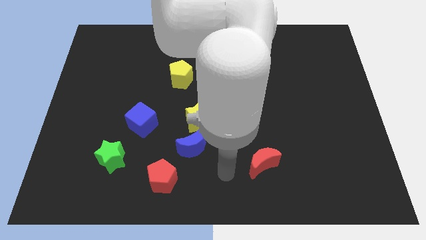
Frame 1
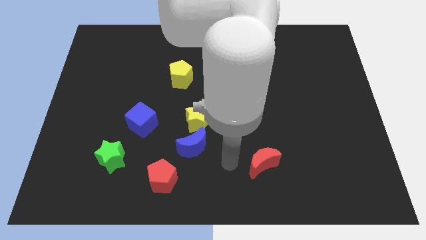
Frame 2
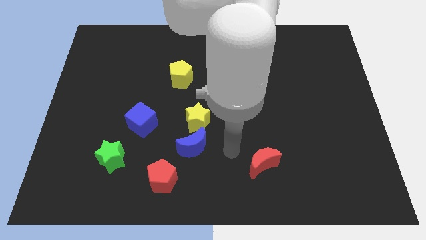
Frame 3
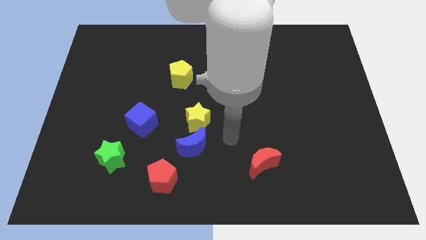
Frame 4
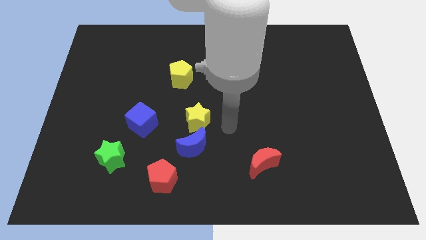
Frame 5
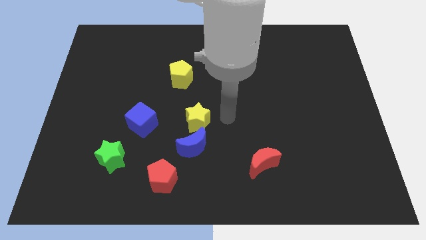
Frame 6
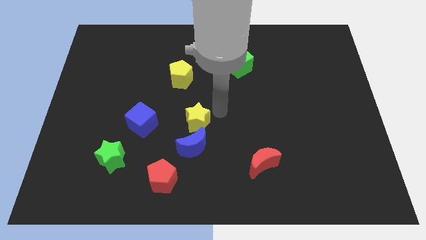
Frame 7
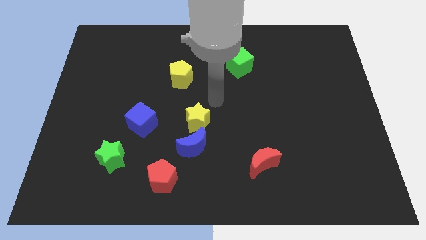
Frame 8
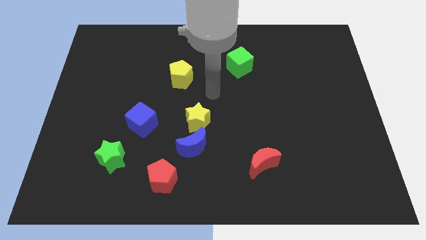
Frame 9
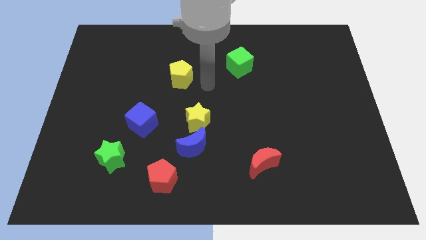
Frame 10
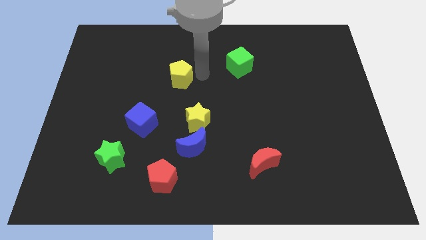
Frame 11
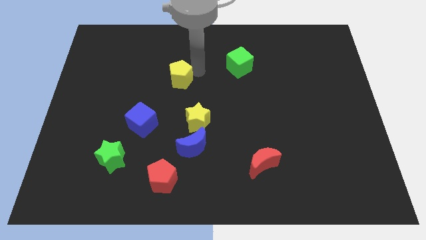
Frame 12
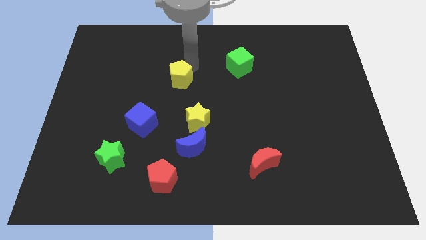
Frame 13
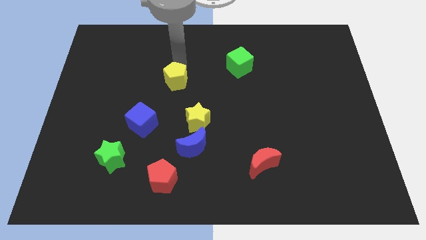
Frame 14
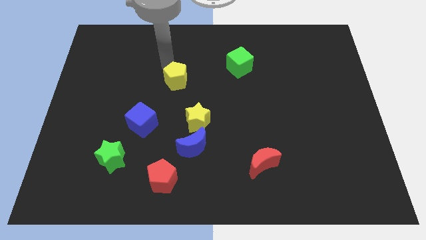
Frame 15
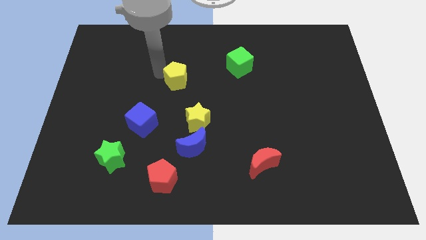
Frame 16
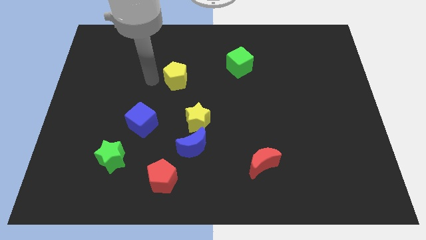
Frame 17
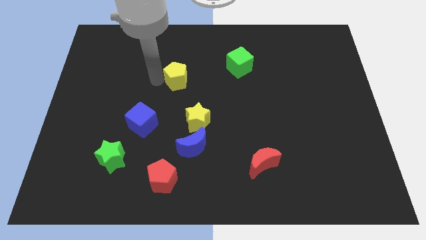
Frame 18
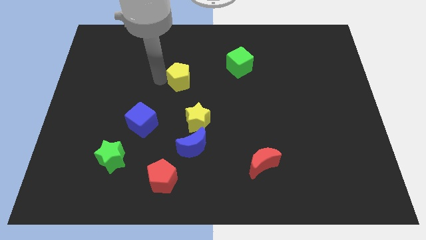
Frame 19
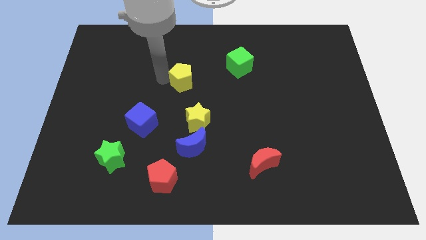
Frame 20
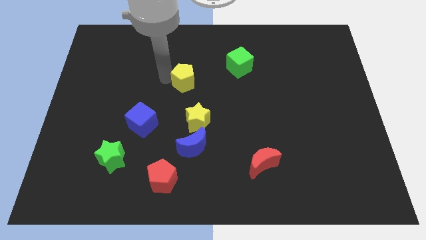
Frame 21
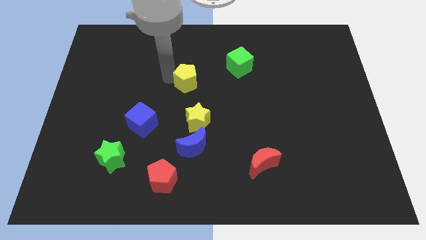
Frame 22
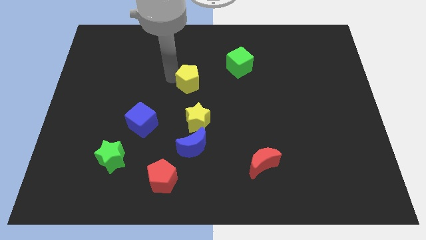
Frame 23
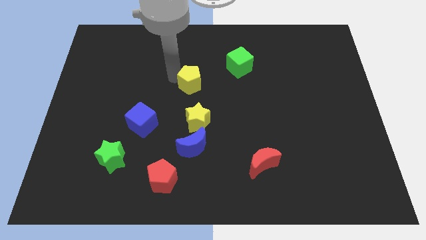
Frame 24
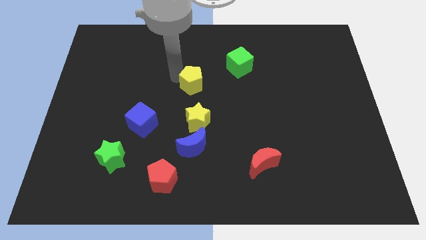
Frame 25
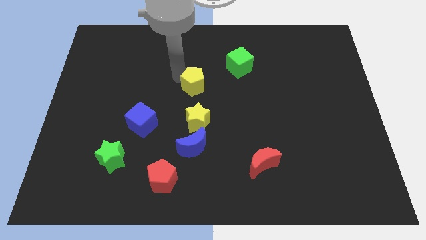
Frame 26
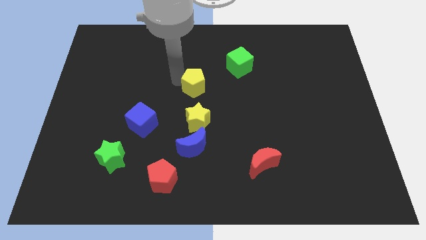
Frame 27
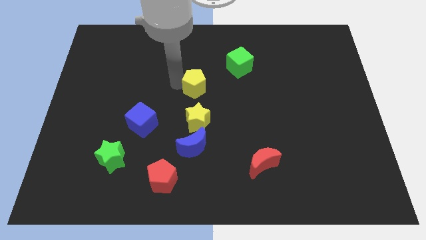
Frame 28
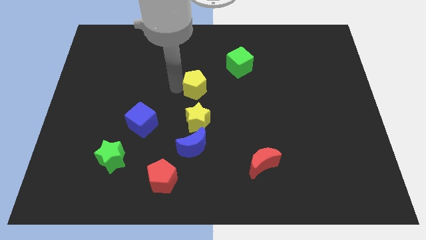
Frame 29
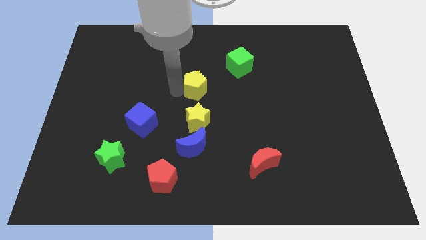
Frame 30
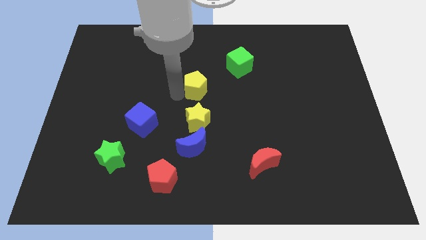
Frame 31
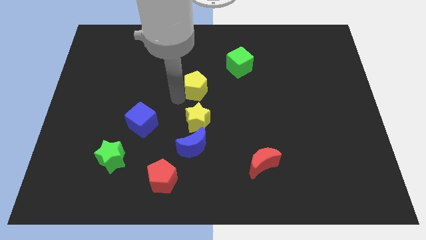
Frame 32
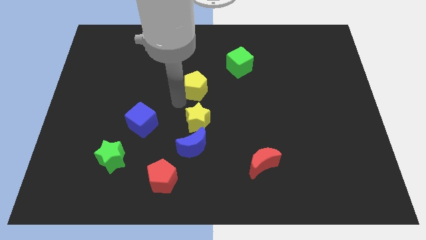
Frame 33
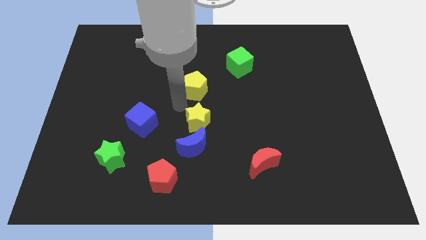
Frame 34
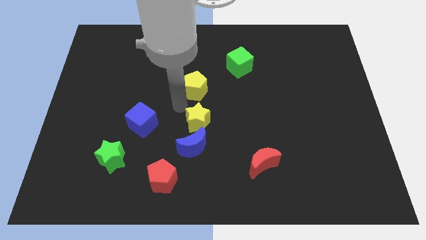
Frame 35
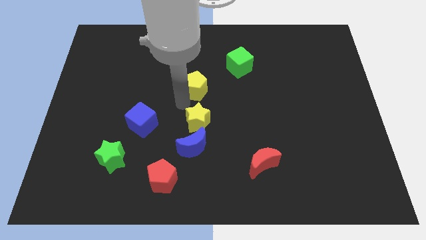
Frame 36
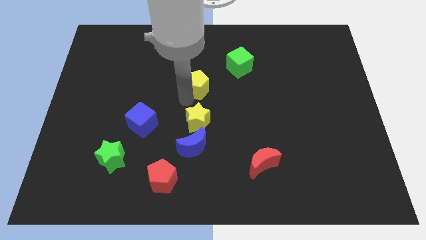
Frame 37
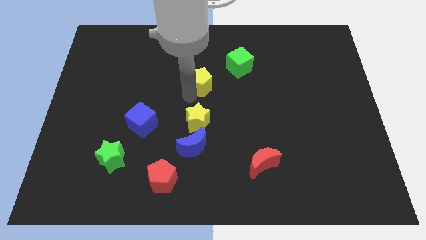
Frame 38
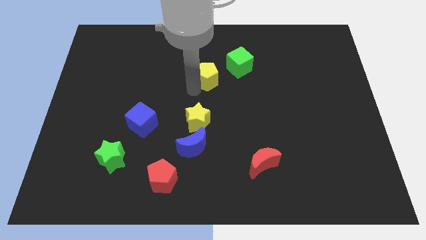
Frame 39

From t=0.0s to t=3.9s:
slightly push the yellow pentagon right

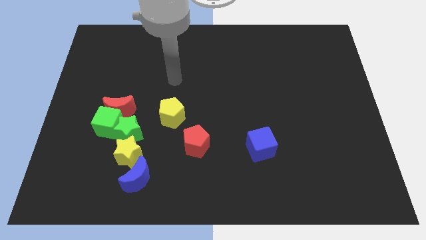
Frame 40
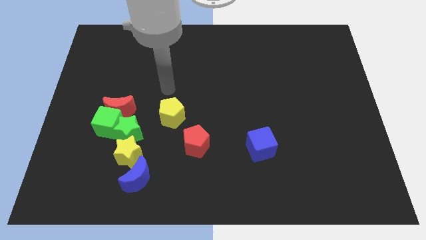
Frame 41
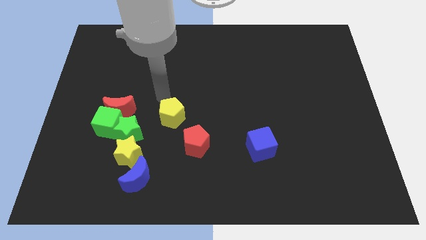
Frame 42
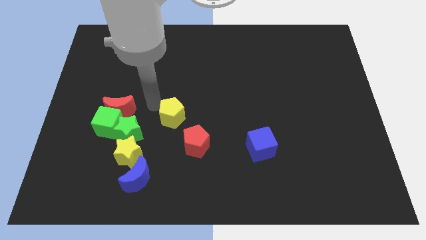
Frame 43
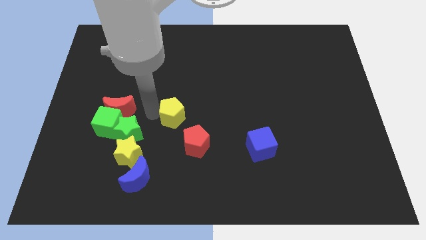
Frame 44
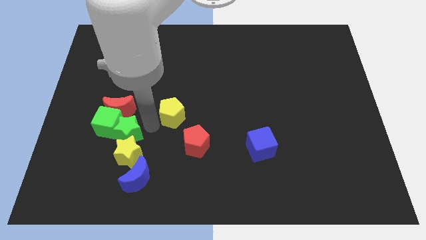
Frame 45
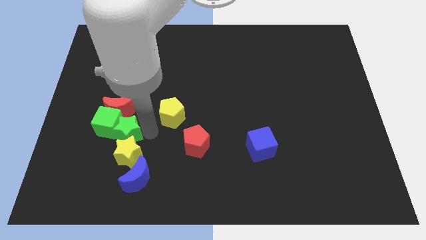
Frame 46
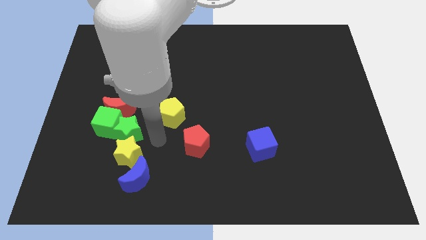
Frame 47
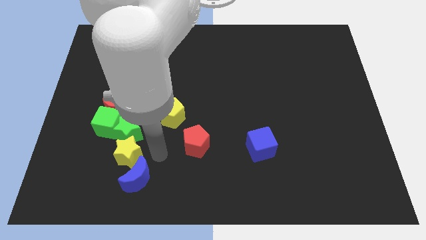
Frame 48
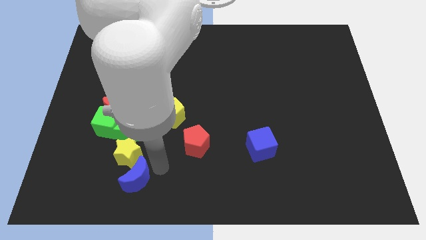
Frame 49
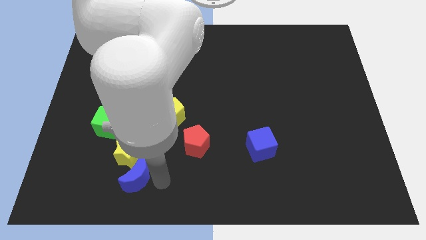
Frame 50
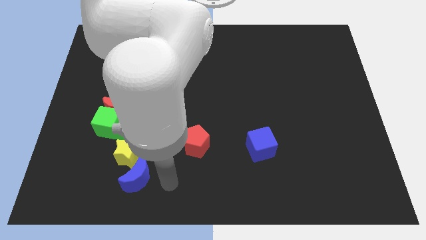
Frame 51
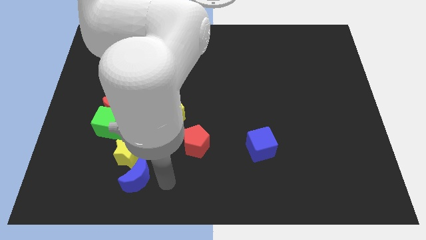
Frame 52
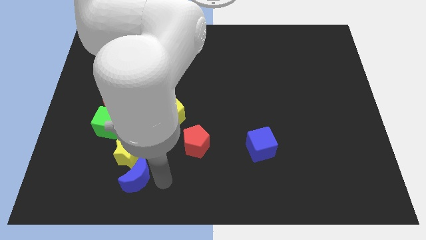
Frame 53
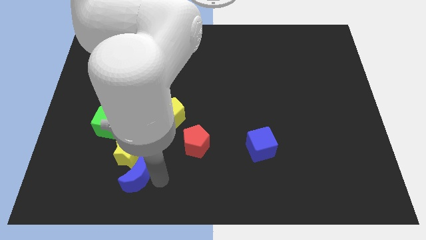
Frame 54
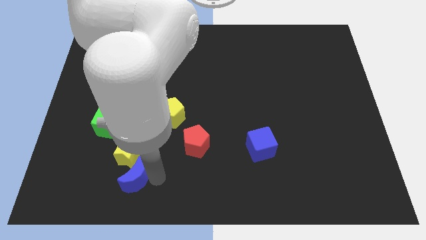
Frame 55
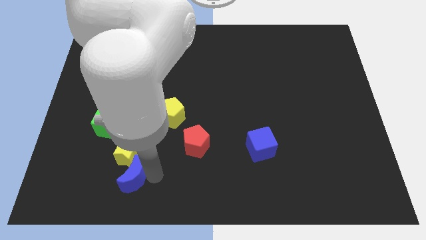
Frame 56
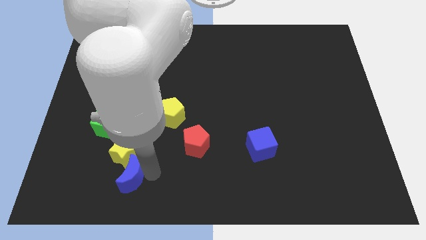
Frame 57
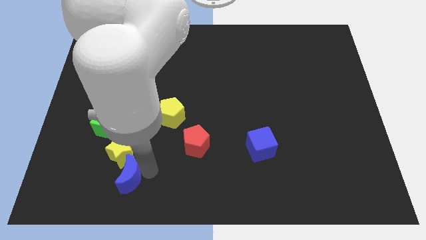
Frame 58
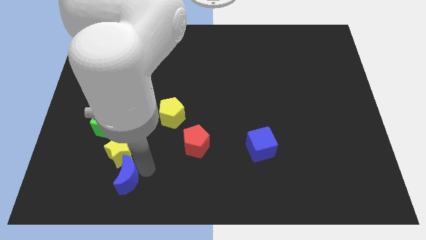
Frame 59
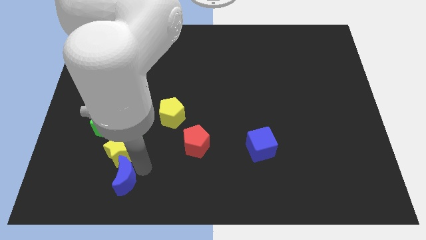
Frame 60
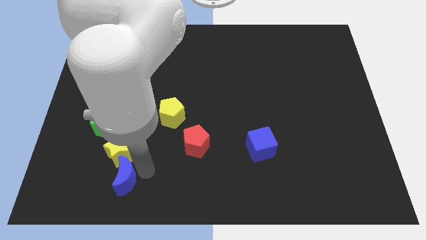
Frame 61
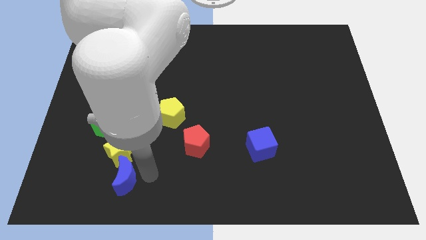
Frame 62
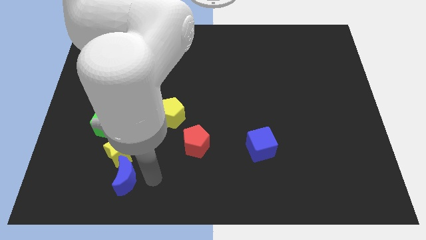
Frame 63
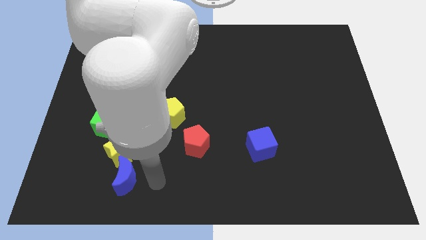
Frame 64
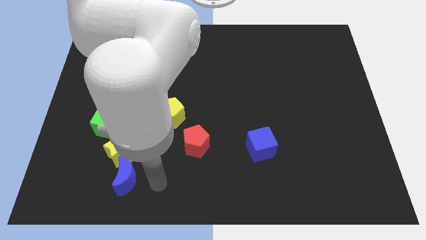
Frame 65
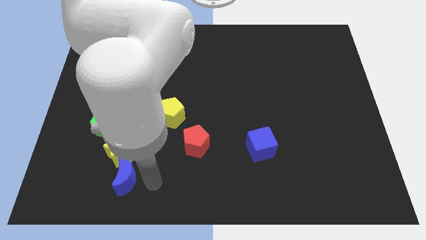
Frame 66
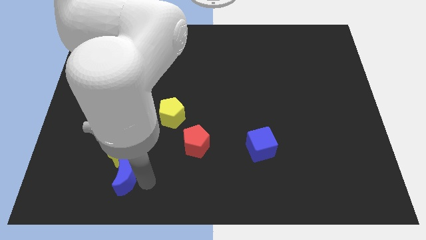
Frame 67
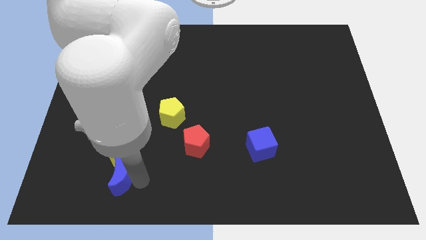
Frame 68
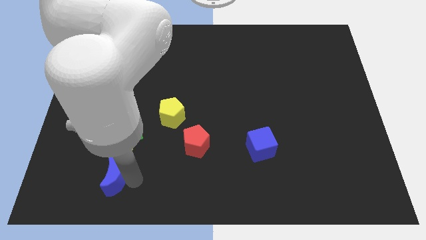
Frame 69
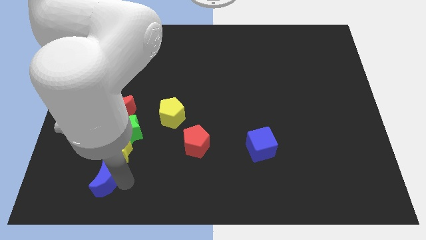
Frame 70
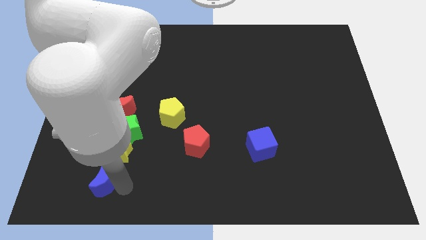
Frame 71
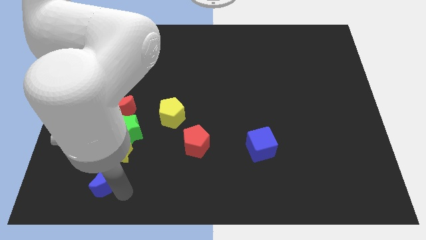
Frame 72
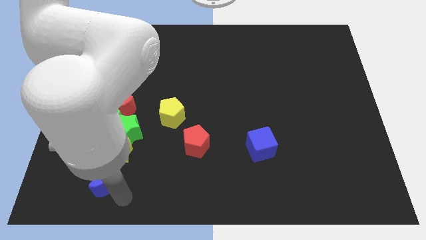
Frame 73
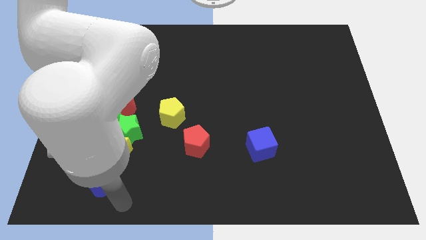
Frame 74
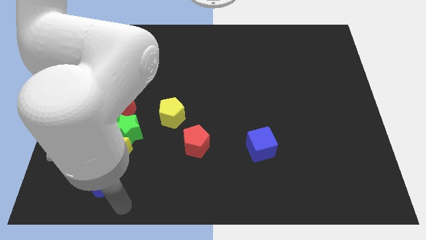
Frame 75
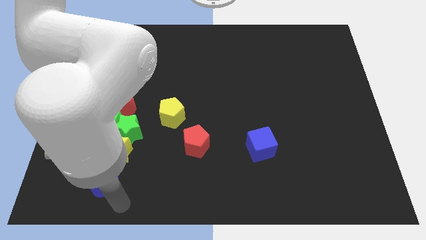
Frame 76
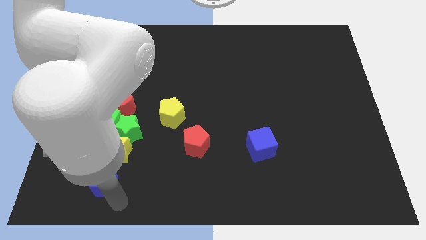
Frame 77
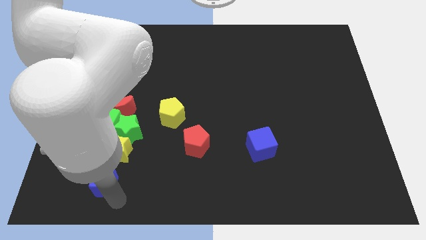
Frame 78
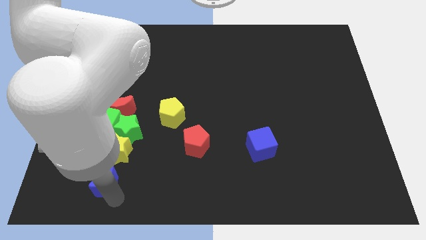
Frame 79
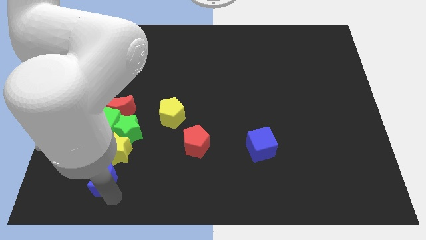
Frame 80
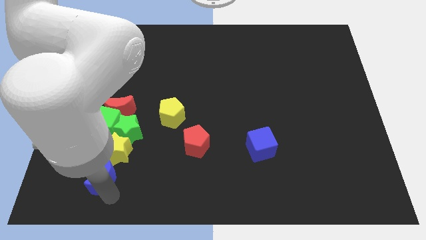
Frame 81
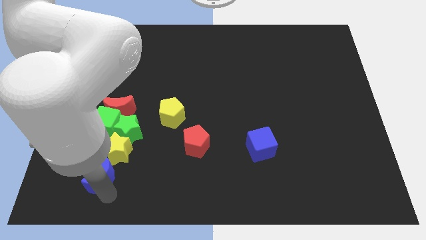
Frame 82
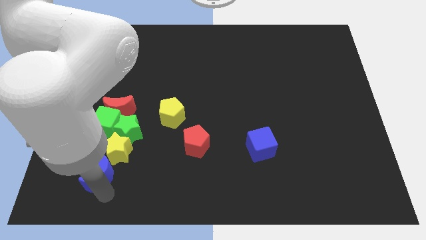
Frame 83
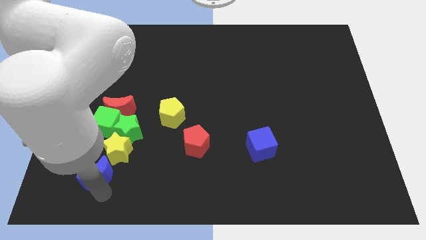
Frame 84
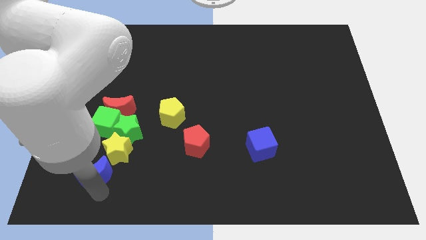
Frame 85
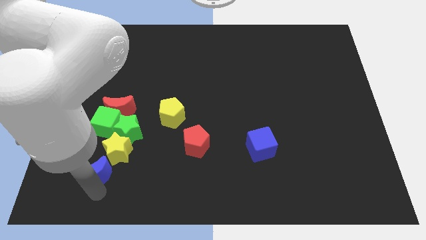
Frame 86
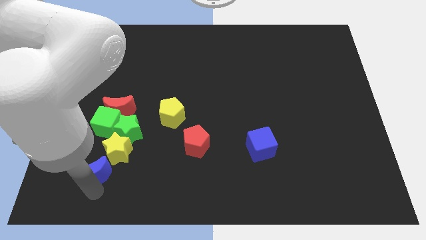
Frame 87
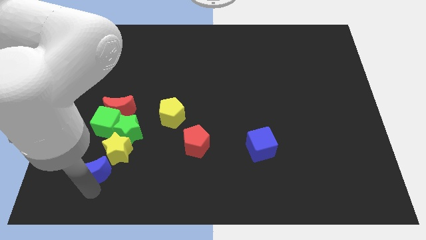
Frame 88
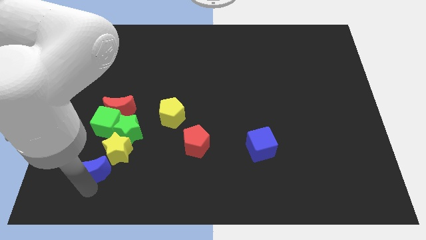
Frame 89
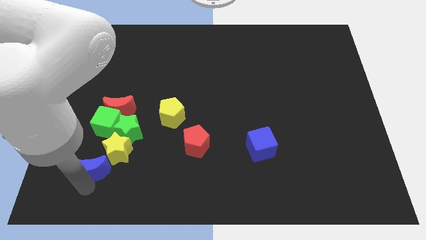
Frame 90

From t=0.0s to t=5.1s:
slightly slide the blue moon upwards and to the left
